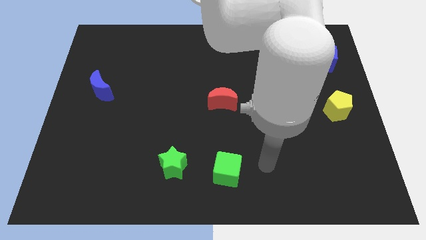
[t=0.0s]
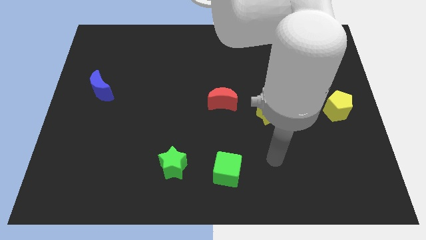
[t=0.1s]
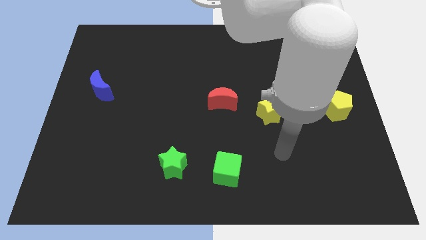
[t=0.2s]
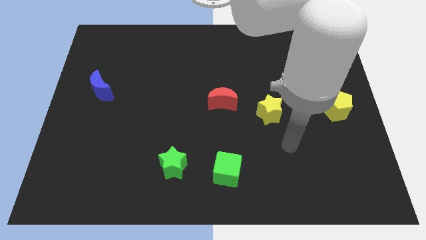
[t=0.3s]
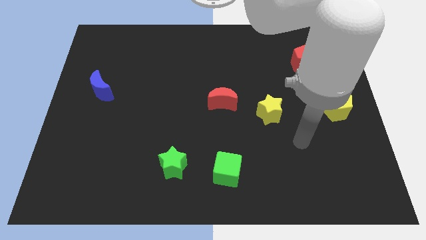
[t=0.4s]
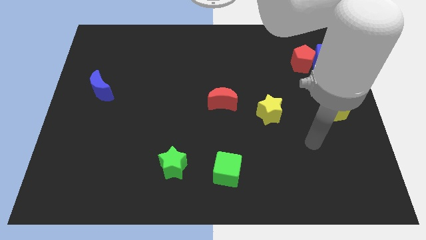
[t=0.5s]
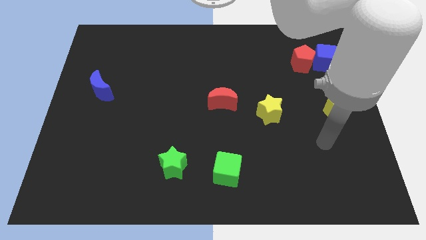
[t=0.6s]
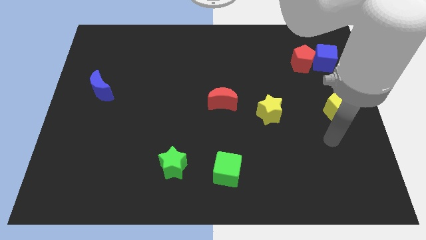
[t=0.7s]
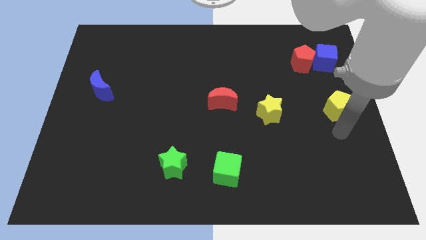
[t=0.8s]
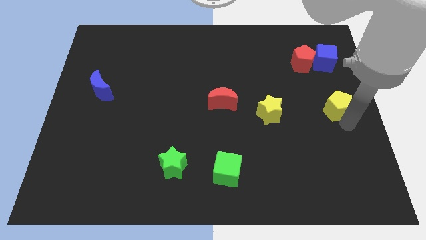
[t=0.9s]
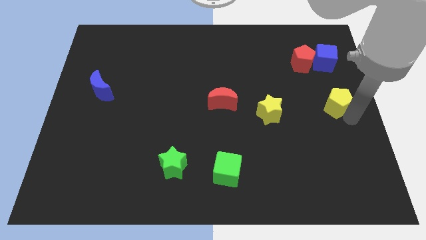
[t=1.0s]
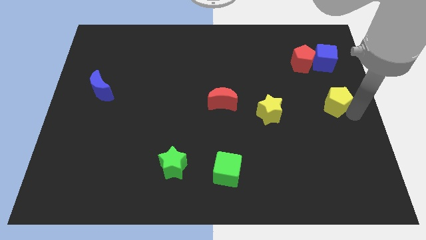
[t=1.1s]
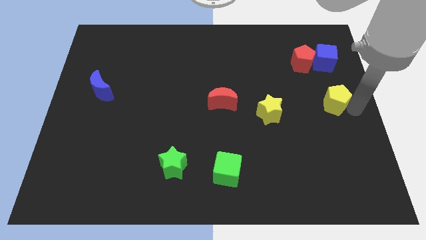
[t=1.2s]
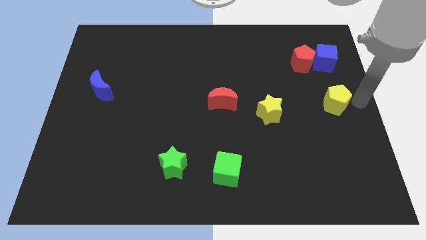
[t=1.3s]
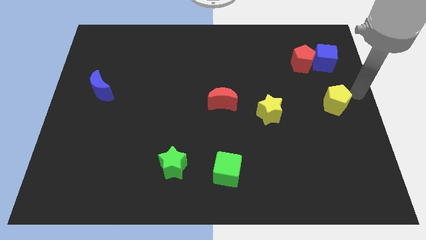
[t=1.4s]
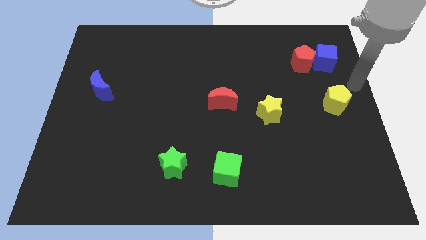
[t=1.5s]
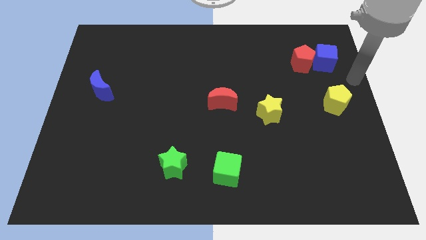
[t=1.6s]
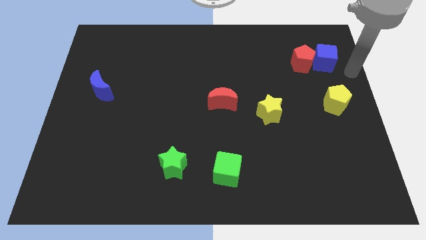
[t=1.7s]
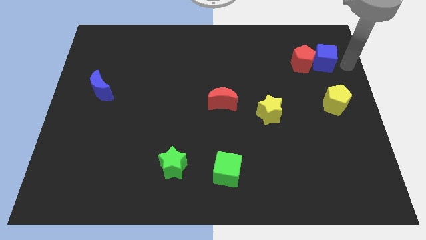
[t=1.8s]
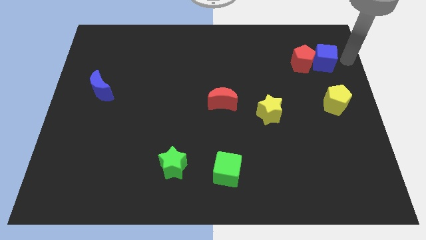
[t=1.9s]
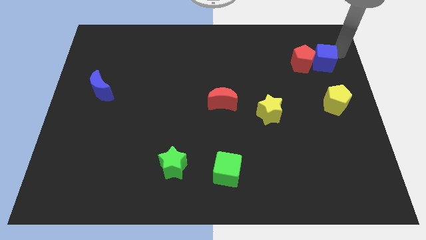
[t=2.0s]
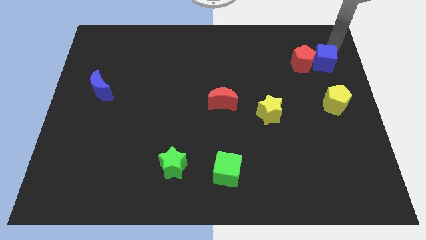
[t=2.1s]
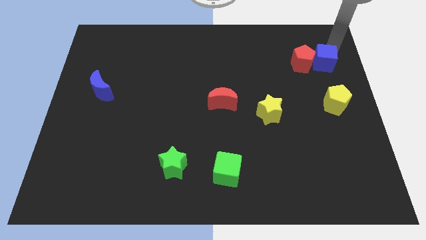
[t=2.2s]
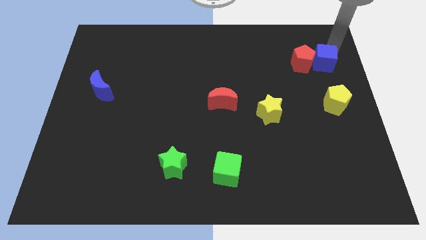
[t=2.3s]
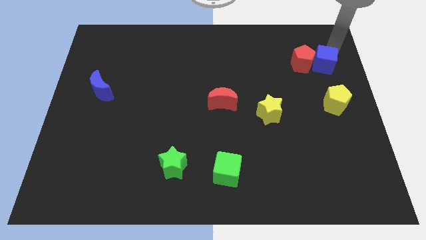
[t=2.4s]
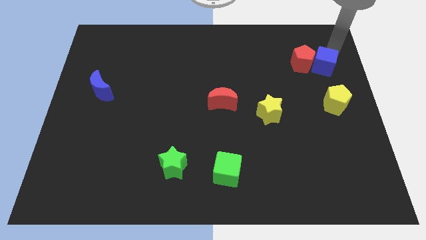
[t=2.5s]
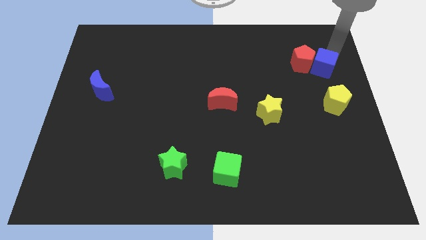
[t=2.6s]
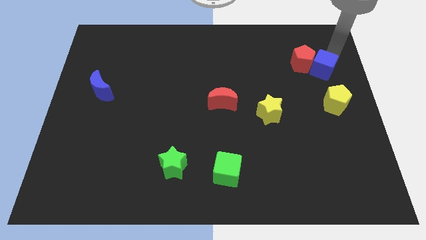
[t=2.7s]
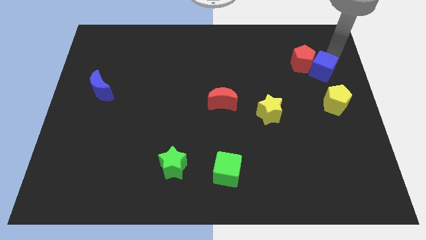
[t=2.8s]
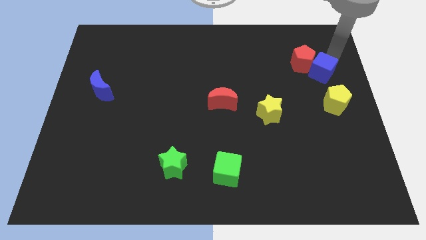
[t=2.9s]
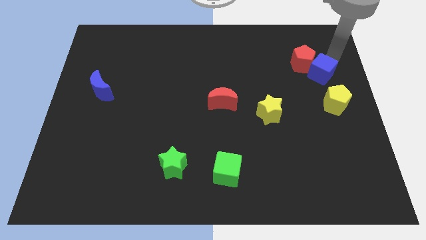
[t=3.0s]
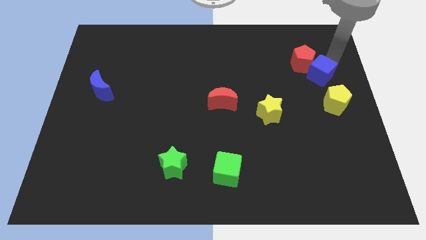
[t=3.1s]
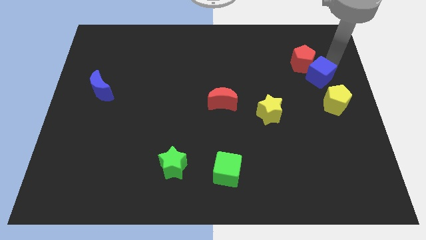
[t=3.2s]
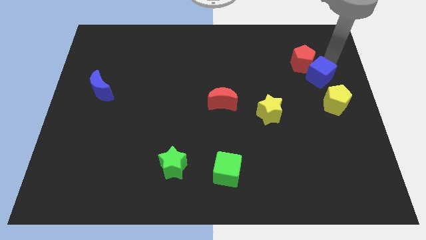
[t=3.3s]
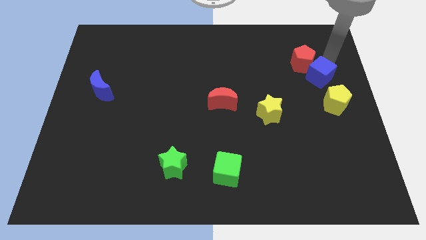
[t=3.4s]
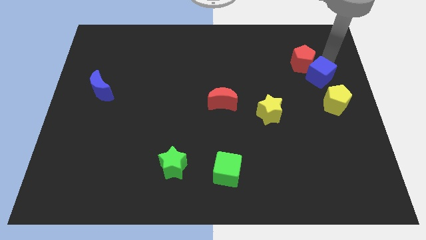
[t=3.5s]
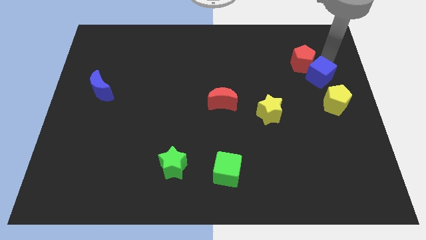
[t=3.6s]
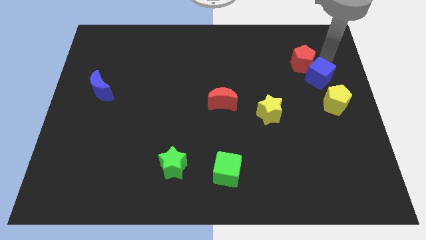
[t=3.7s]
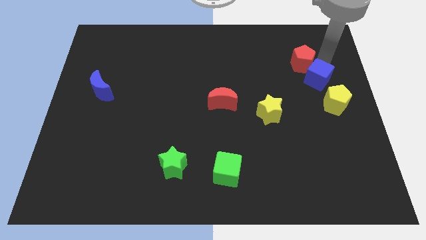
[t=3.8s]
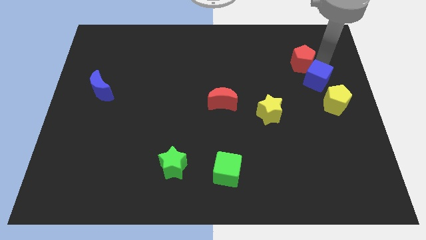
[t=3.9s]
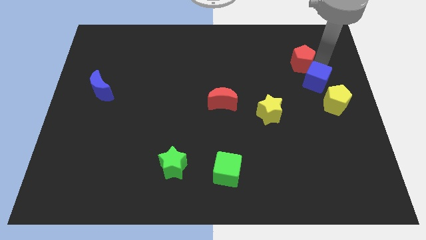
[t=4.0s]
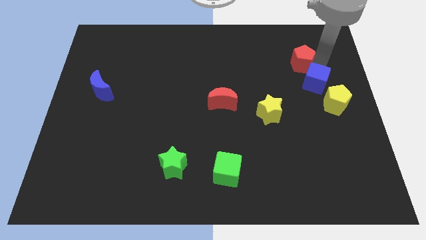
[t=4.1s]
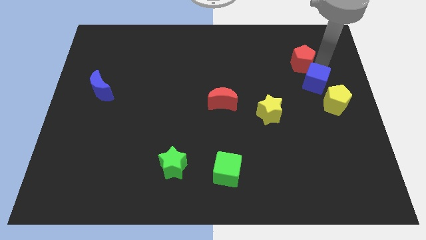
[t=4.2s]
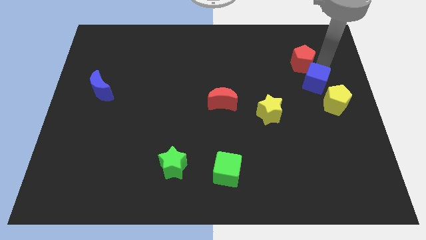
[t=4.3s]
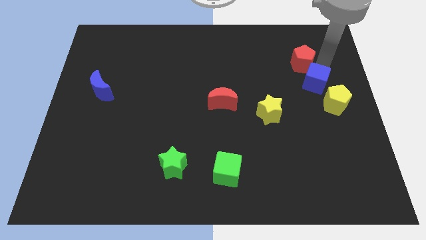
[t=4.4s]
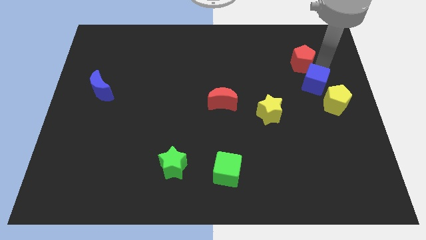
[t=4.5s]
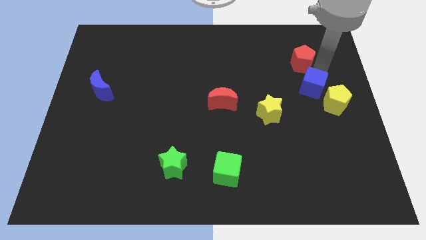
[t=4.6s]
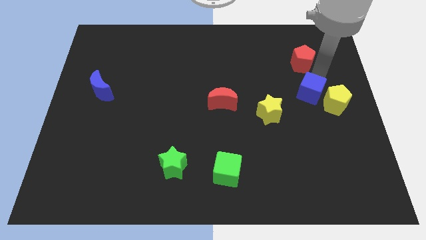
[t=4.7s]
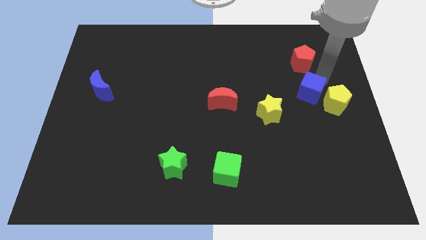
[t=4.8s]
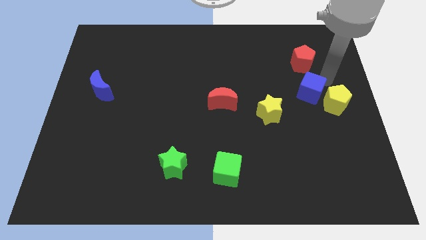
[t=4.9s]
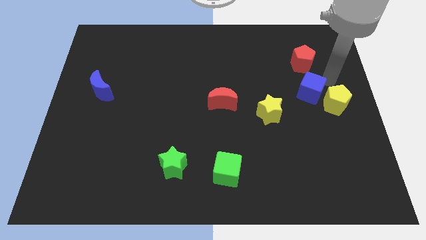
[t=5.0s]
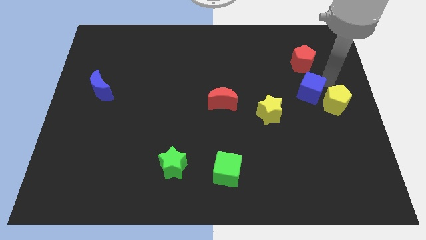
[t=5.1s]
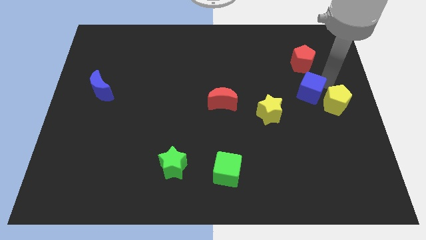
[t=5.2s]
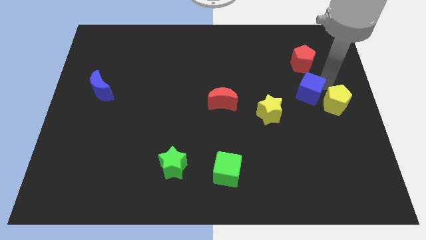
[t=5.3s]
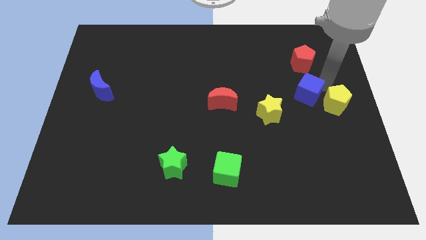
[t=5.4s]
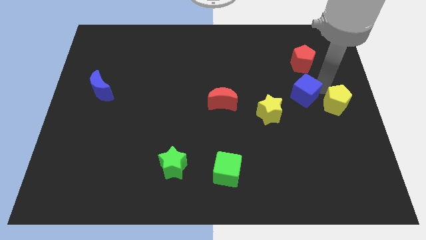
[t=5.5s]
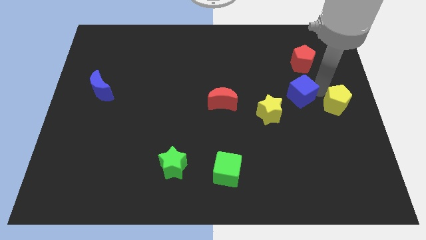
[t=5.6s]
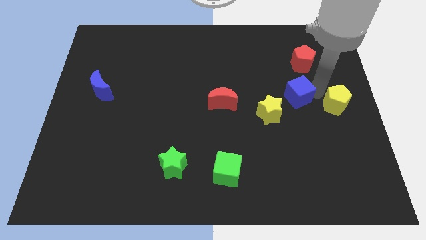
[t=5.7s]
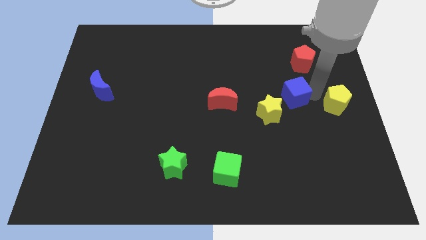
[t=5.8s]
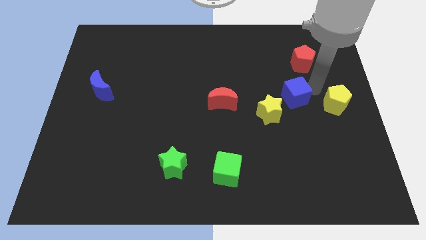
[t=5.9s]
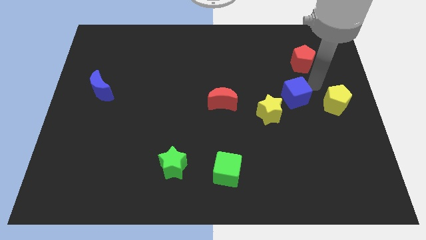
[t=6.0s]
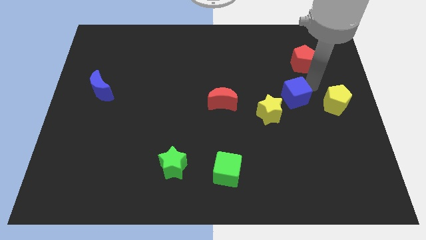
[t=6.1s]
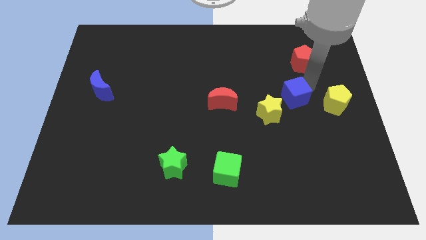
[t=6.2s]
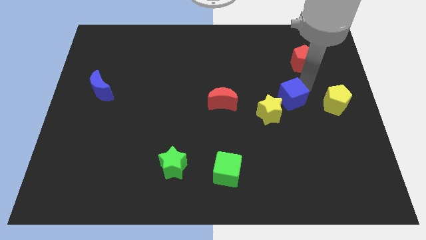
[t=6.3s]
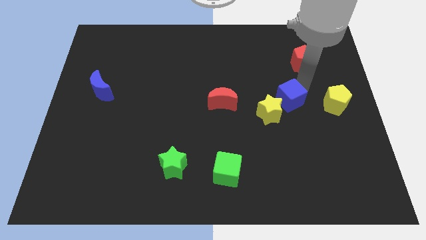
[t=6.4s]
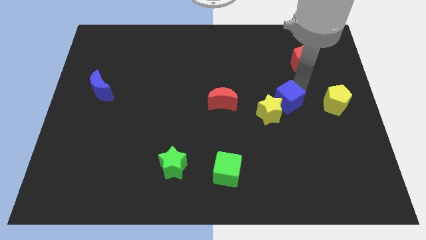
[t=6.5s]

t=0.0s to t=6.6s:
slide the blue cube to the yellow star

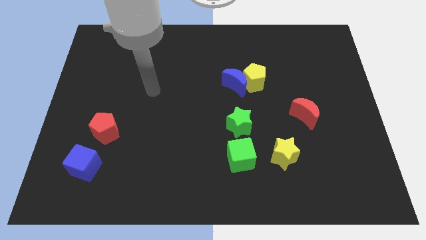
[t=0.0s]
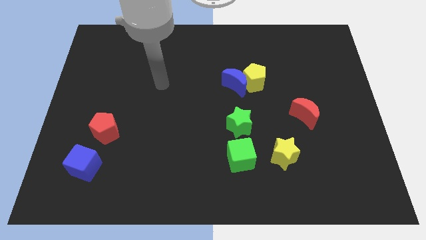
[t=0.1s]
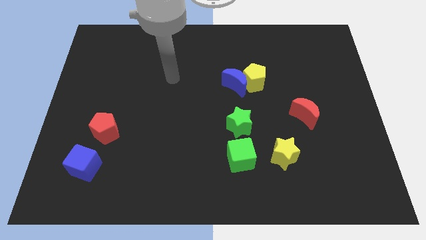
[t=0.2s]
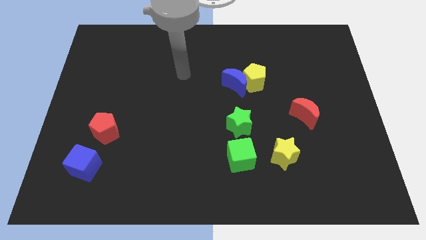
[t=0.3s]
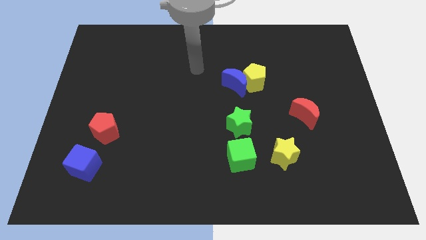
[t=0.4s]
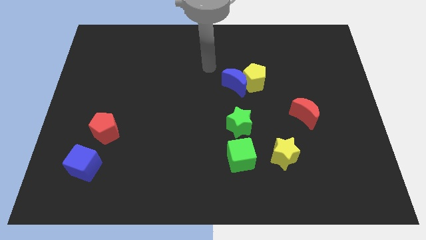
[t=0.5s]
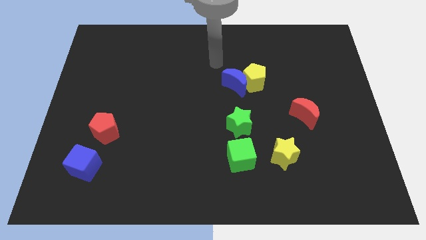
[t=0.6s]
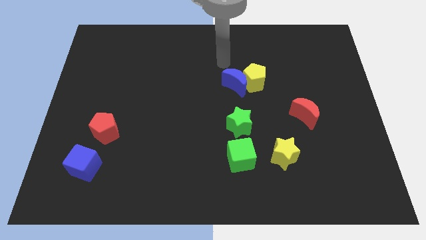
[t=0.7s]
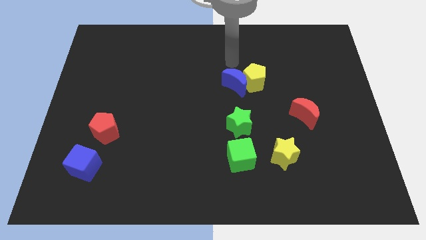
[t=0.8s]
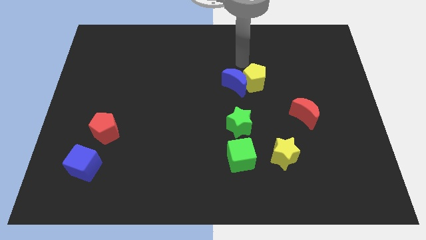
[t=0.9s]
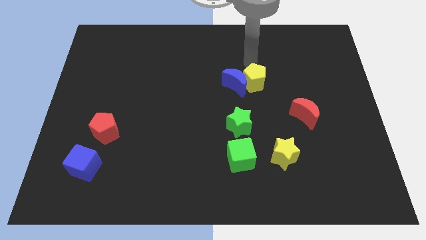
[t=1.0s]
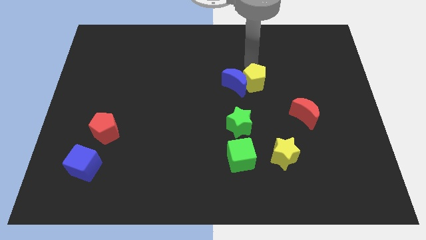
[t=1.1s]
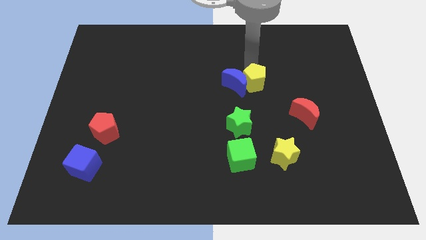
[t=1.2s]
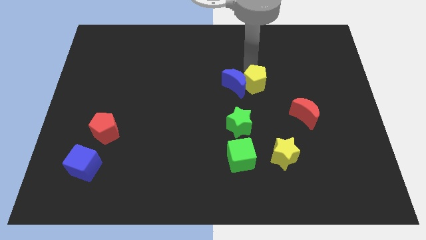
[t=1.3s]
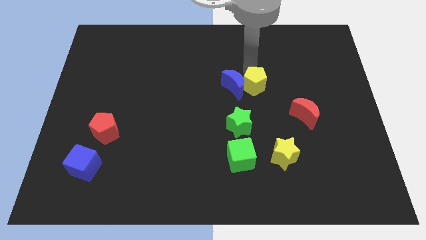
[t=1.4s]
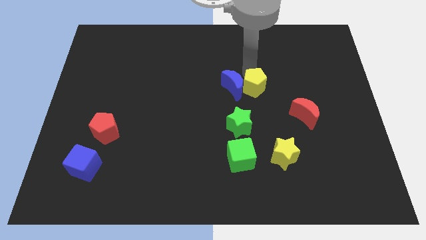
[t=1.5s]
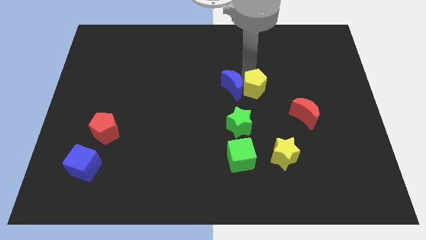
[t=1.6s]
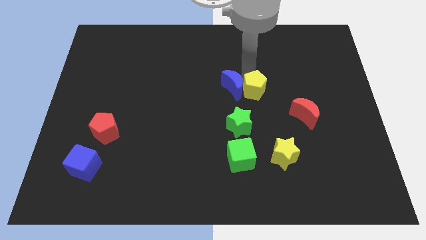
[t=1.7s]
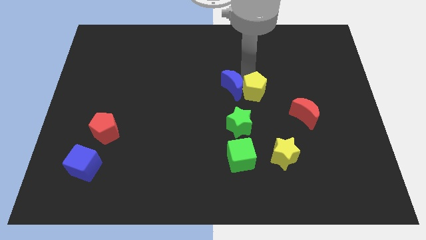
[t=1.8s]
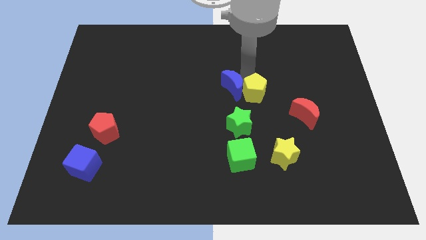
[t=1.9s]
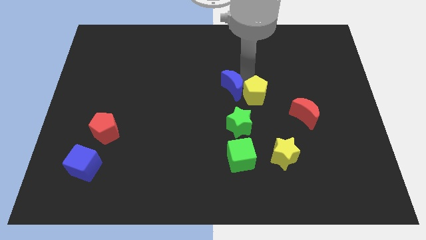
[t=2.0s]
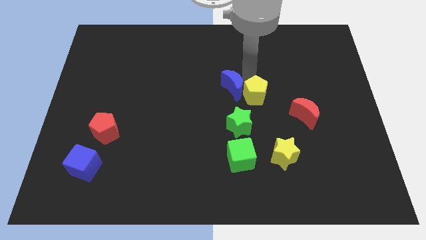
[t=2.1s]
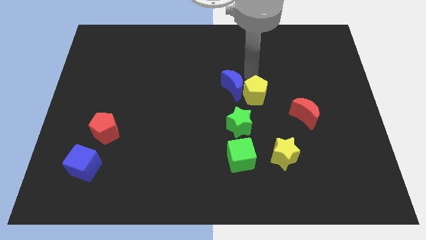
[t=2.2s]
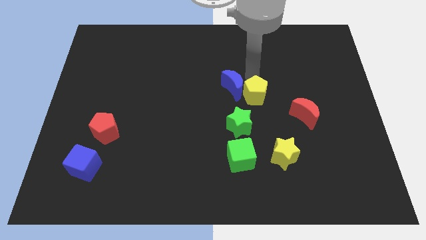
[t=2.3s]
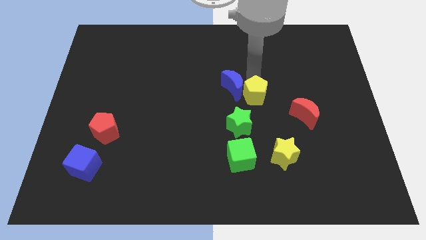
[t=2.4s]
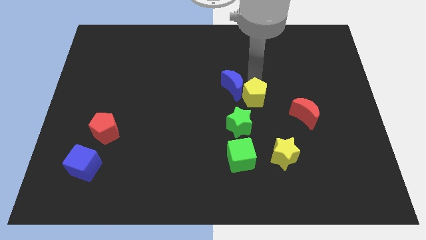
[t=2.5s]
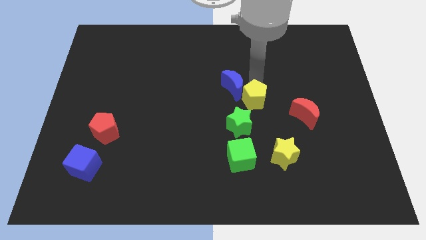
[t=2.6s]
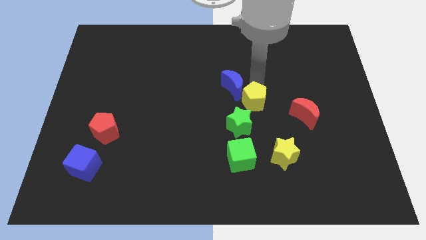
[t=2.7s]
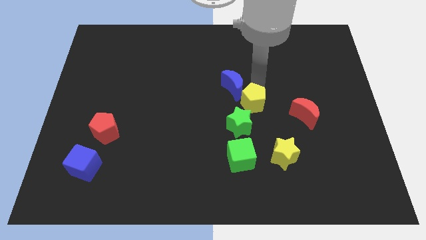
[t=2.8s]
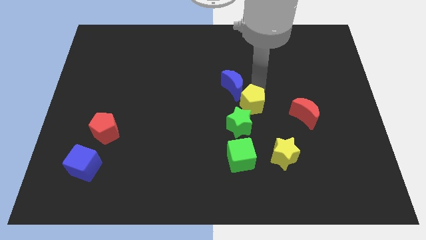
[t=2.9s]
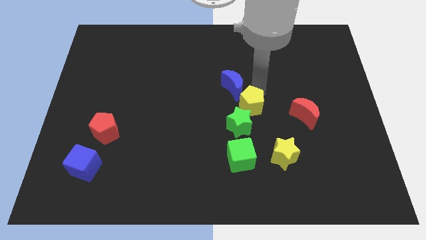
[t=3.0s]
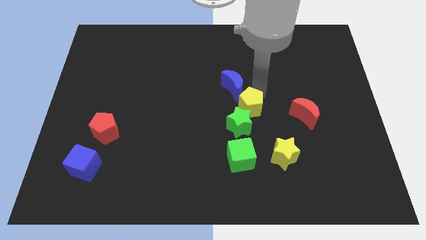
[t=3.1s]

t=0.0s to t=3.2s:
slide the yellow pentagon next to the green star
